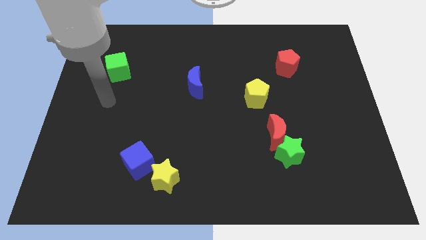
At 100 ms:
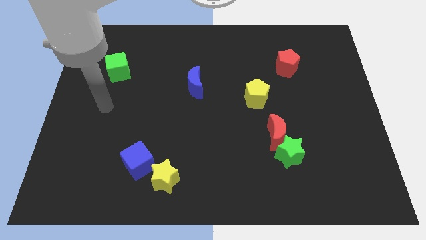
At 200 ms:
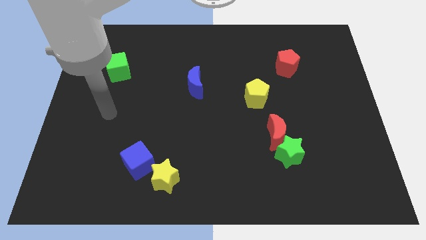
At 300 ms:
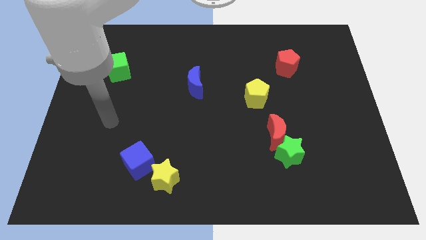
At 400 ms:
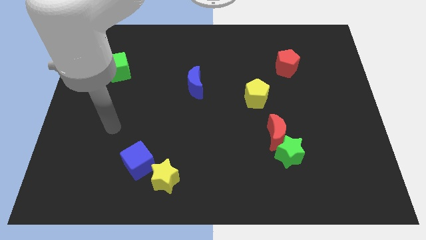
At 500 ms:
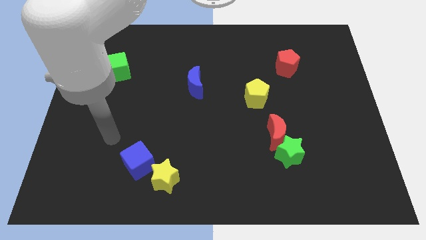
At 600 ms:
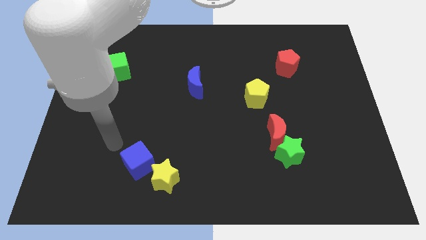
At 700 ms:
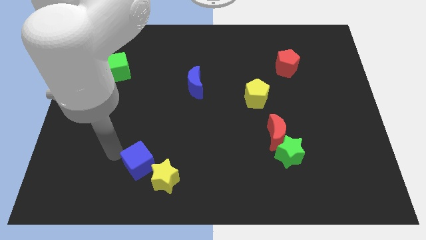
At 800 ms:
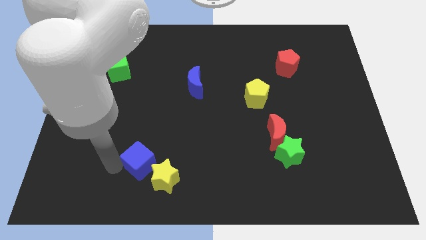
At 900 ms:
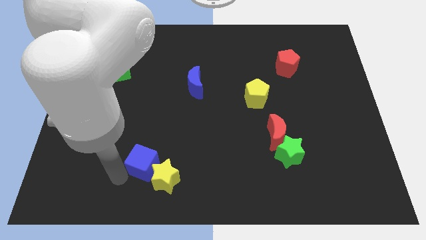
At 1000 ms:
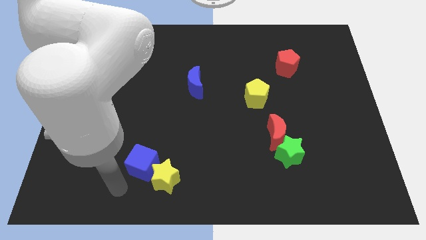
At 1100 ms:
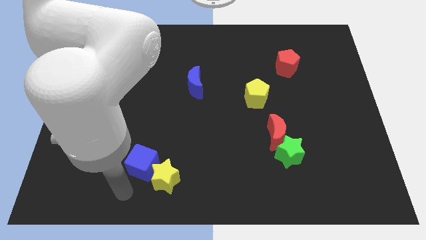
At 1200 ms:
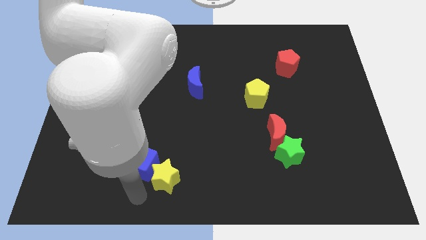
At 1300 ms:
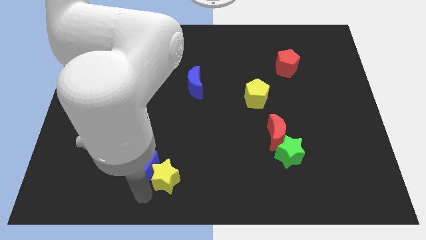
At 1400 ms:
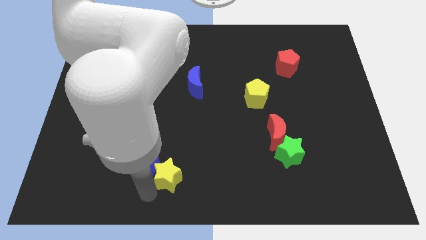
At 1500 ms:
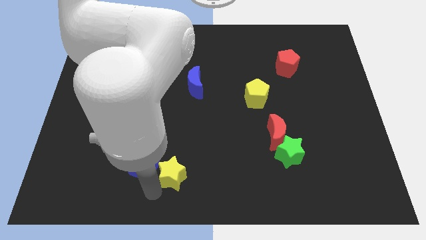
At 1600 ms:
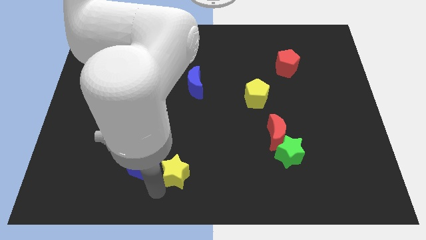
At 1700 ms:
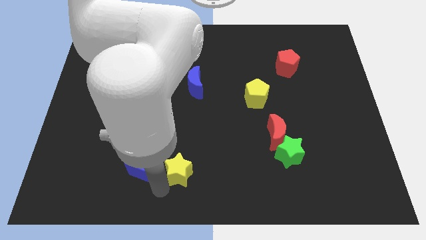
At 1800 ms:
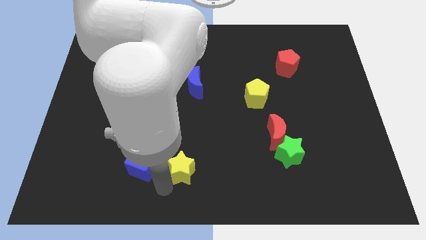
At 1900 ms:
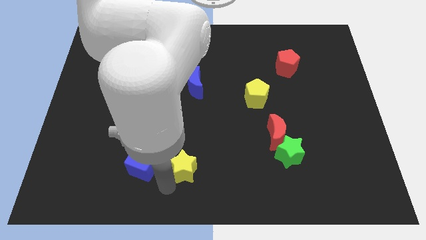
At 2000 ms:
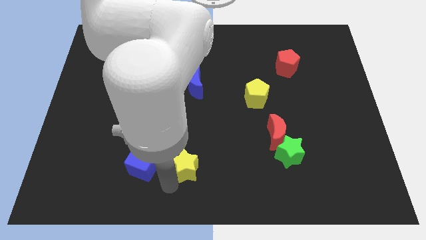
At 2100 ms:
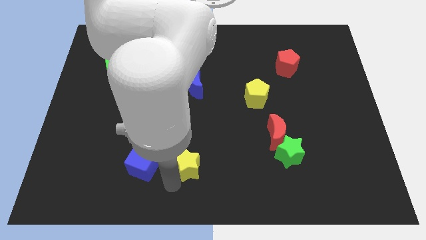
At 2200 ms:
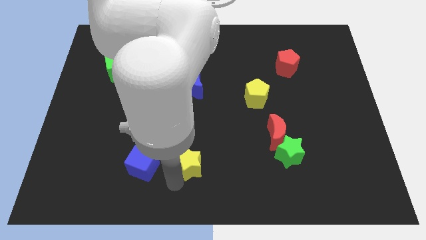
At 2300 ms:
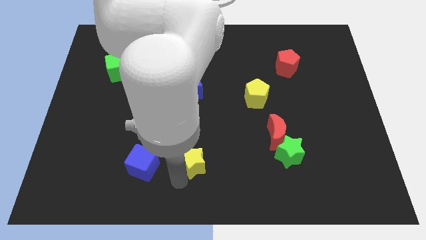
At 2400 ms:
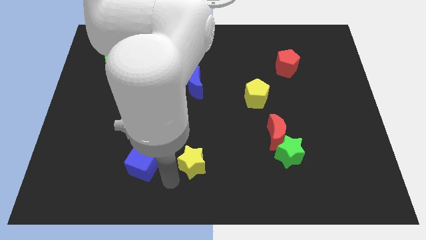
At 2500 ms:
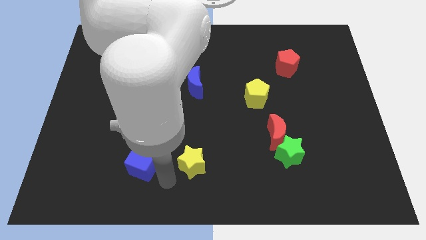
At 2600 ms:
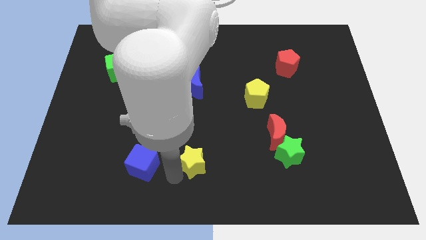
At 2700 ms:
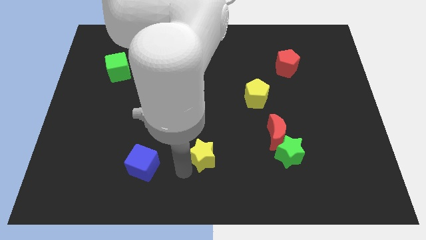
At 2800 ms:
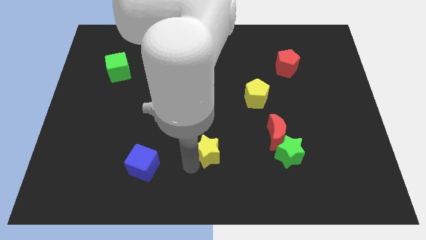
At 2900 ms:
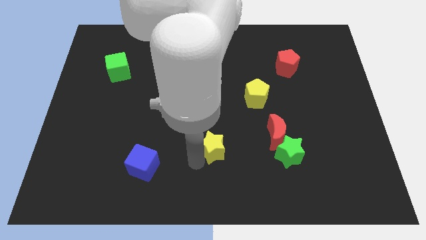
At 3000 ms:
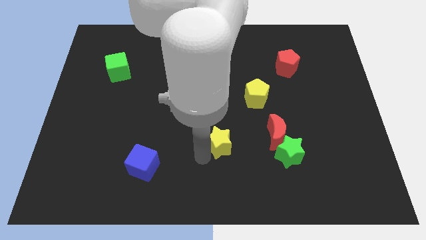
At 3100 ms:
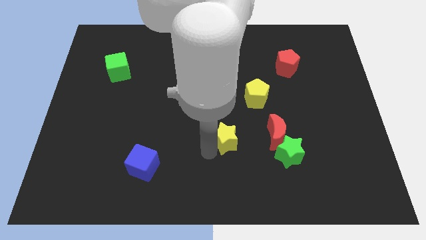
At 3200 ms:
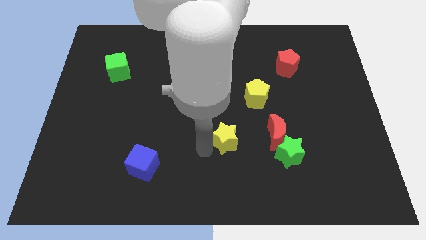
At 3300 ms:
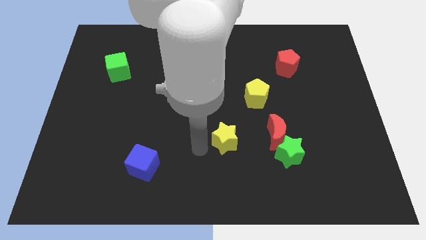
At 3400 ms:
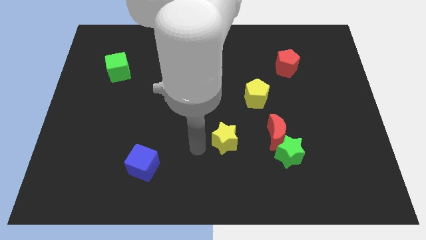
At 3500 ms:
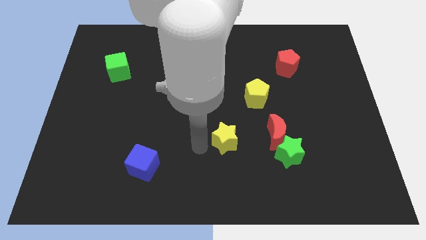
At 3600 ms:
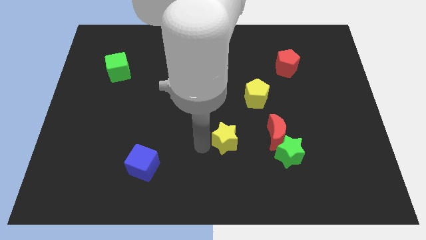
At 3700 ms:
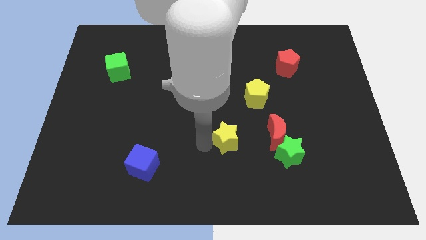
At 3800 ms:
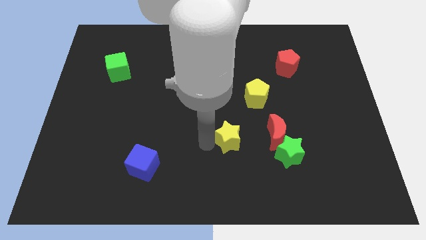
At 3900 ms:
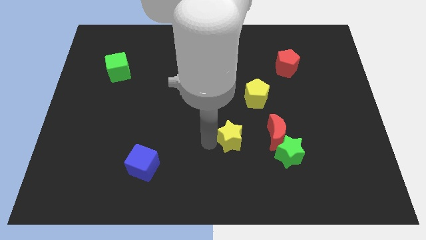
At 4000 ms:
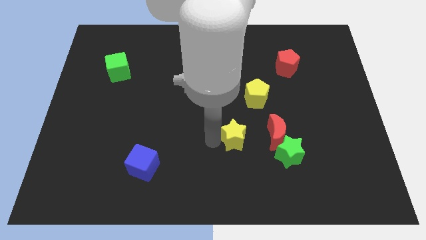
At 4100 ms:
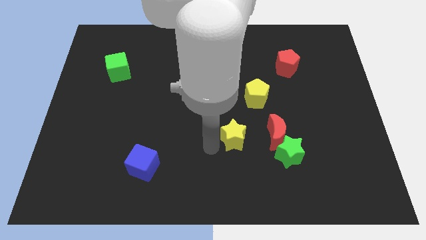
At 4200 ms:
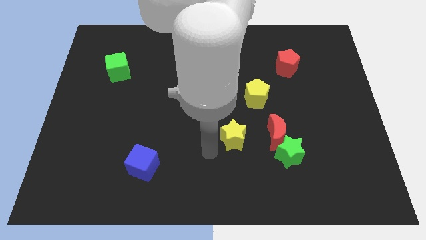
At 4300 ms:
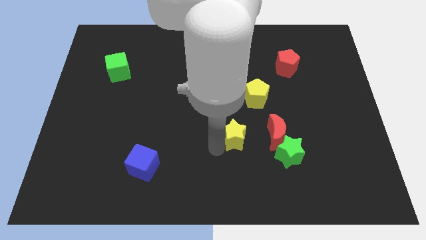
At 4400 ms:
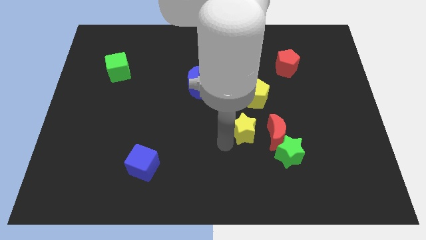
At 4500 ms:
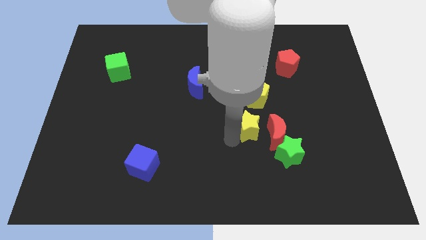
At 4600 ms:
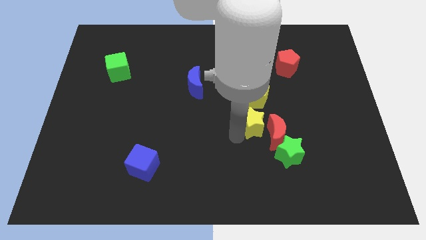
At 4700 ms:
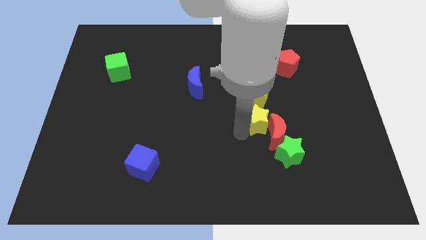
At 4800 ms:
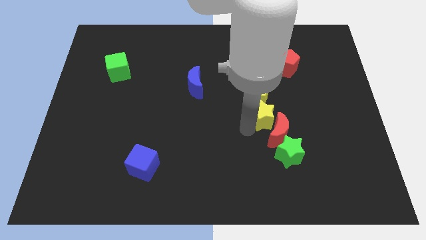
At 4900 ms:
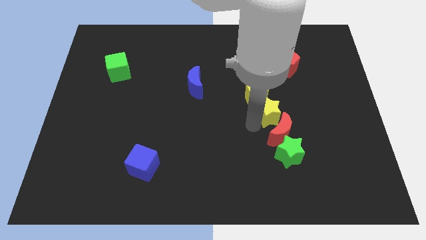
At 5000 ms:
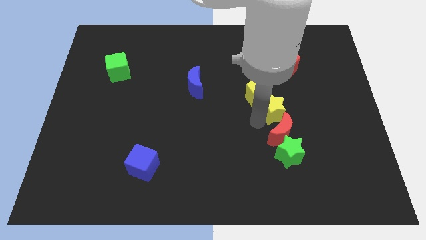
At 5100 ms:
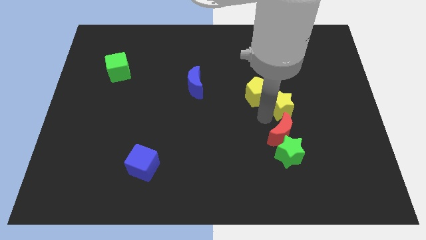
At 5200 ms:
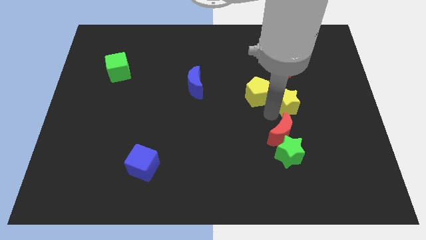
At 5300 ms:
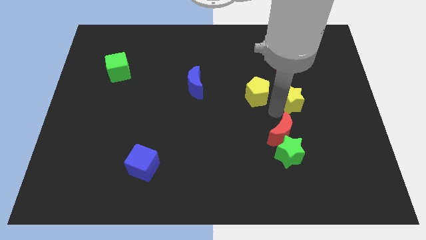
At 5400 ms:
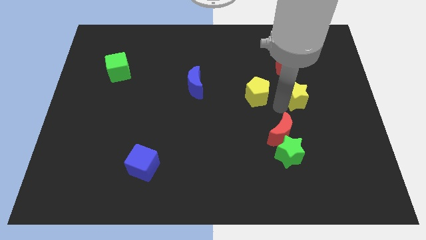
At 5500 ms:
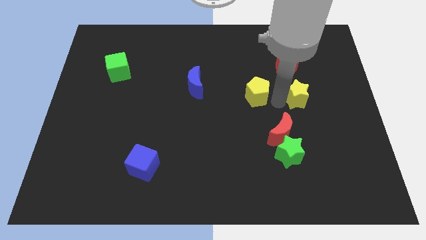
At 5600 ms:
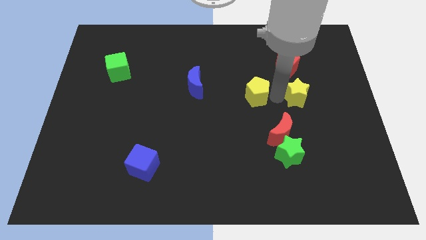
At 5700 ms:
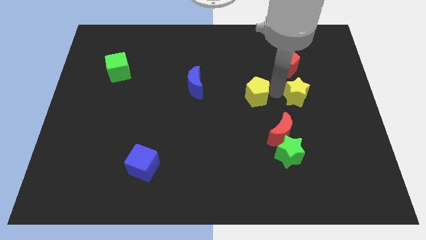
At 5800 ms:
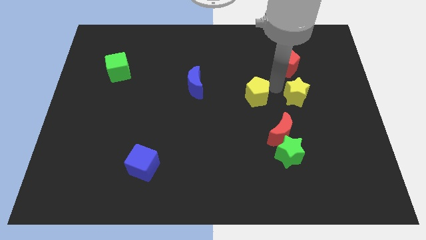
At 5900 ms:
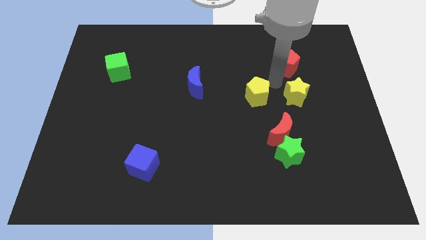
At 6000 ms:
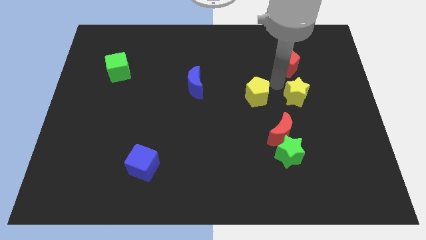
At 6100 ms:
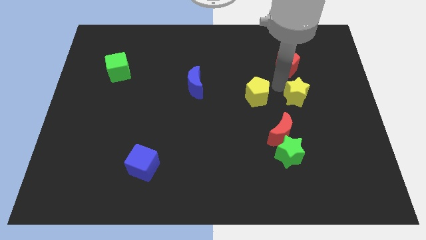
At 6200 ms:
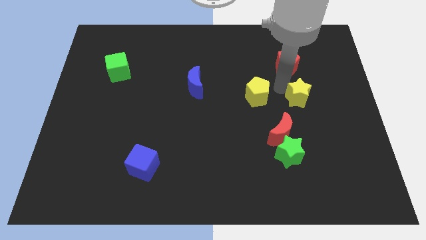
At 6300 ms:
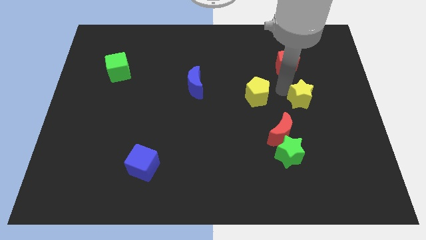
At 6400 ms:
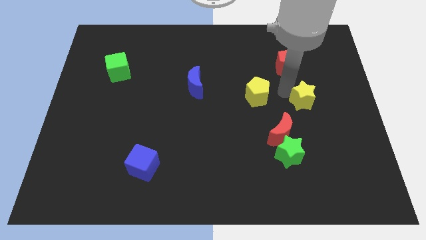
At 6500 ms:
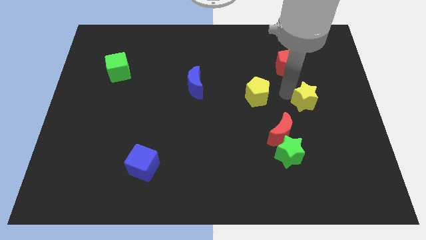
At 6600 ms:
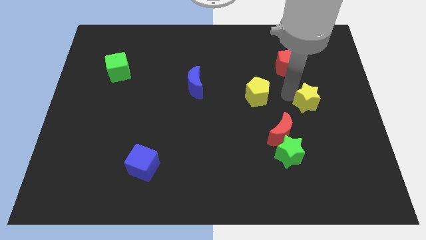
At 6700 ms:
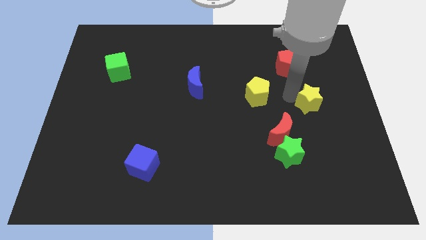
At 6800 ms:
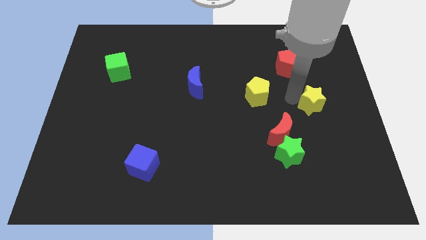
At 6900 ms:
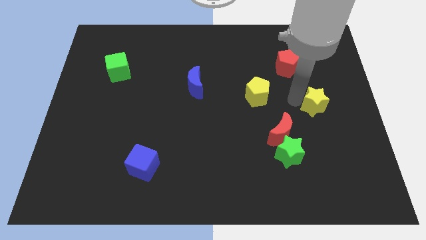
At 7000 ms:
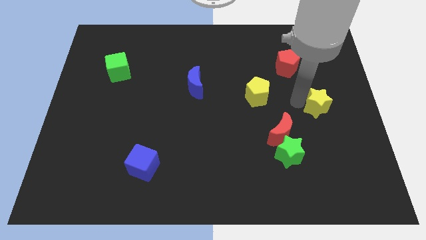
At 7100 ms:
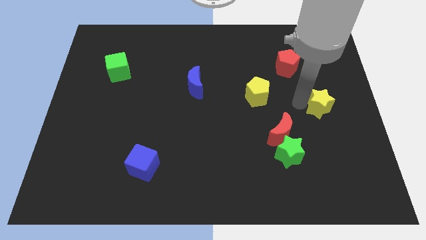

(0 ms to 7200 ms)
move the yellow star to the center right
